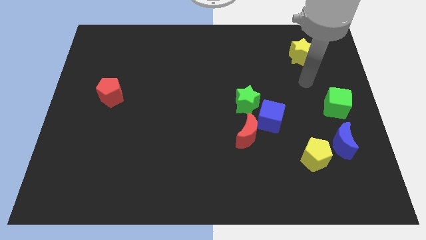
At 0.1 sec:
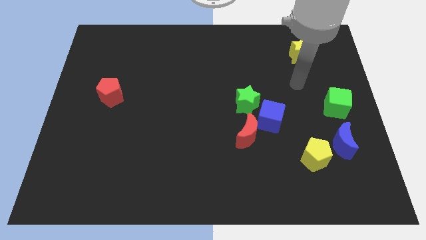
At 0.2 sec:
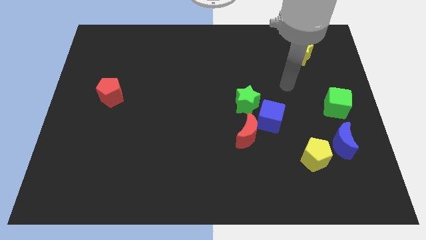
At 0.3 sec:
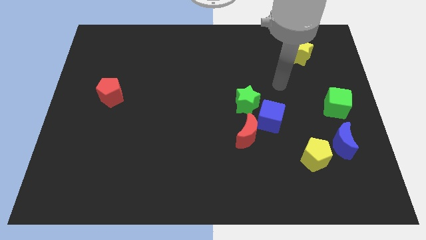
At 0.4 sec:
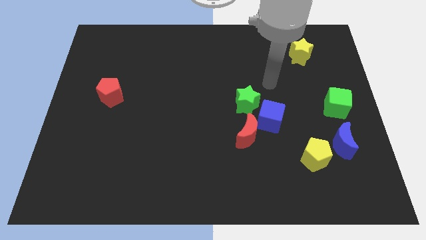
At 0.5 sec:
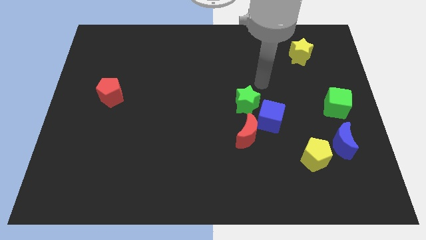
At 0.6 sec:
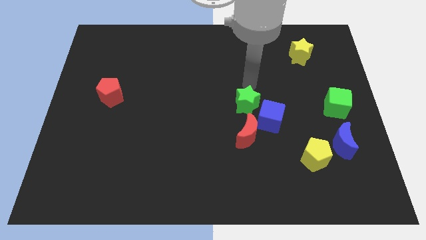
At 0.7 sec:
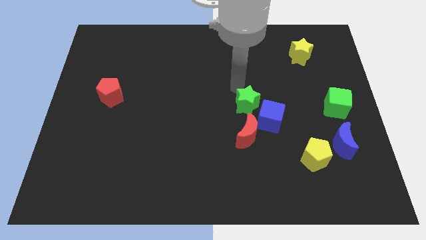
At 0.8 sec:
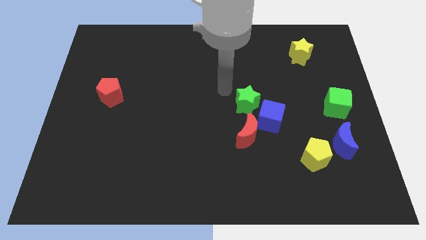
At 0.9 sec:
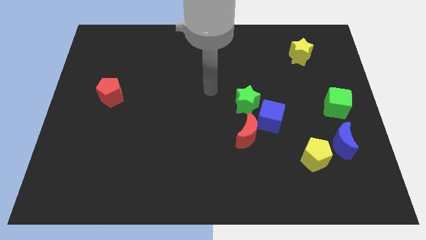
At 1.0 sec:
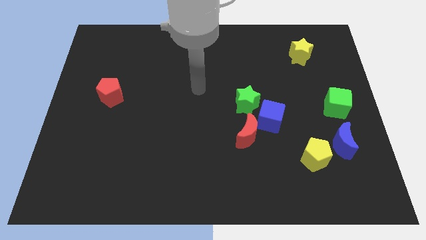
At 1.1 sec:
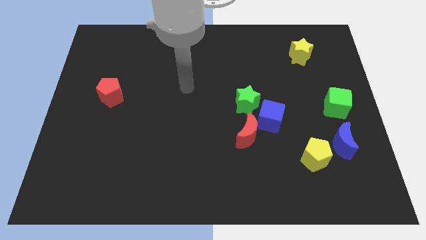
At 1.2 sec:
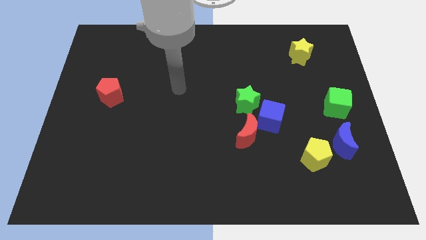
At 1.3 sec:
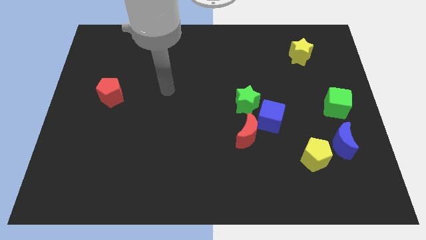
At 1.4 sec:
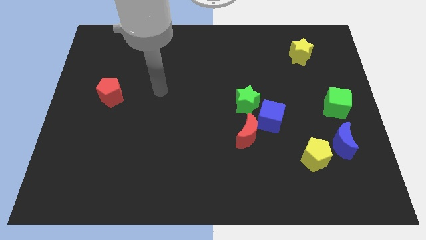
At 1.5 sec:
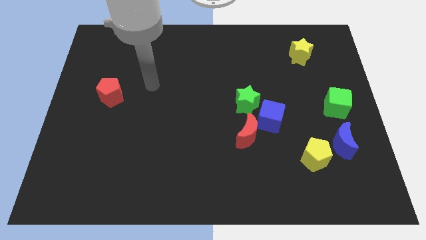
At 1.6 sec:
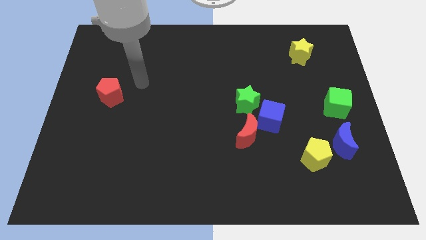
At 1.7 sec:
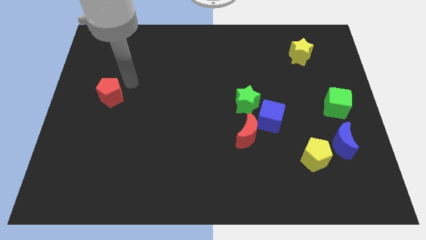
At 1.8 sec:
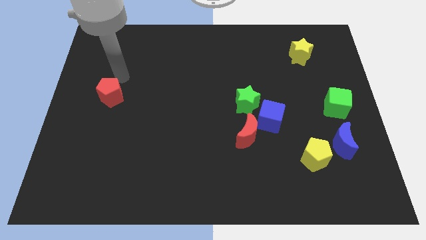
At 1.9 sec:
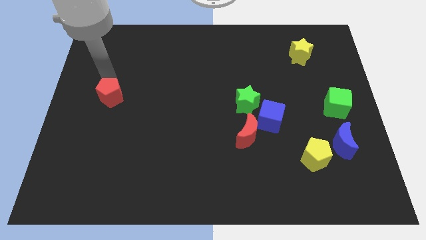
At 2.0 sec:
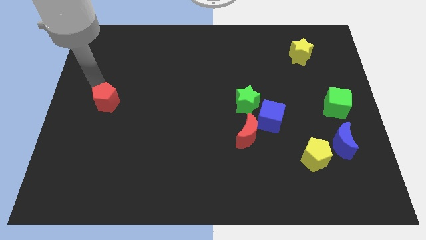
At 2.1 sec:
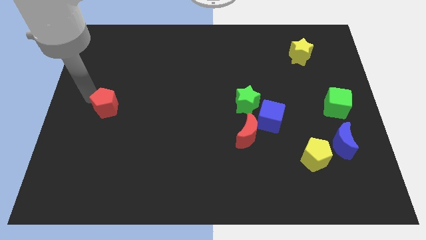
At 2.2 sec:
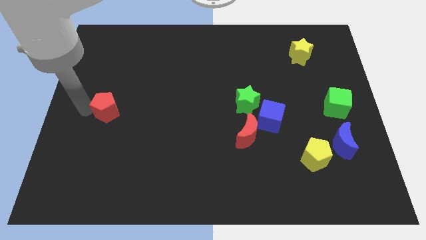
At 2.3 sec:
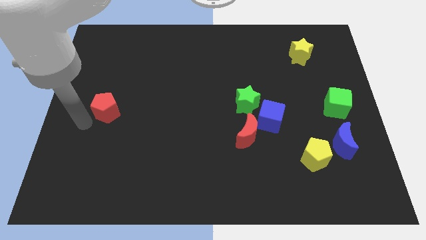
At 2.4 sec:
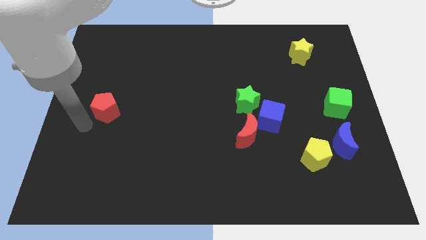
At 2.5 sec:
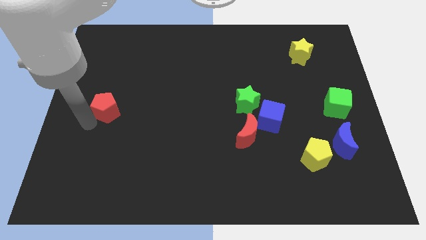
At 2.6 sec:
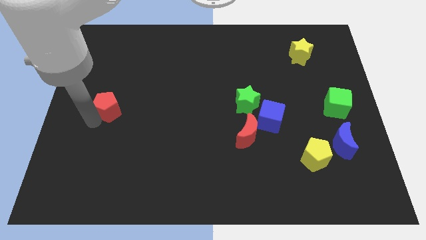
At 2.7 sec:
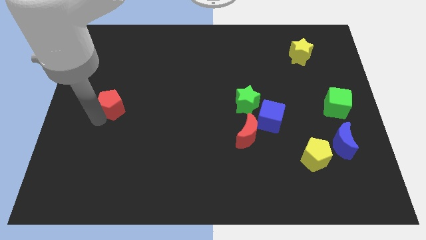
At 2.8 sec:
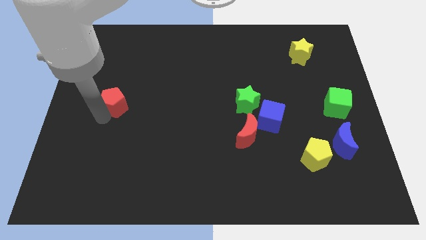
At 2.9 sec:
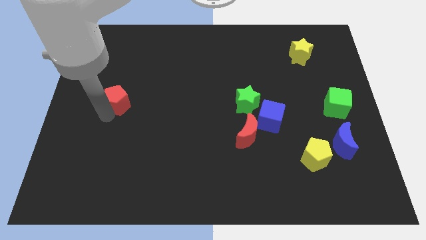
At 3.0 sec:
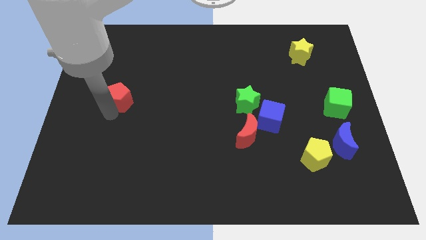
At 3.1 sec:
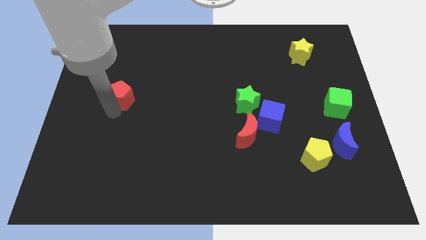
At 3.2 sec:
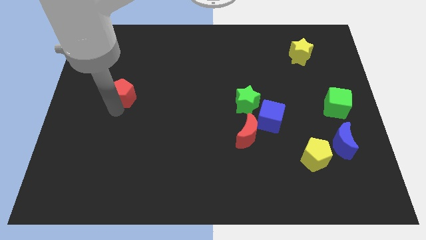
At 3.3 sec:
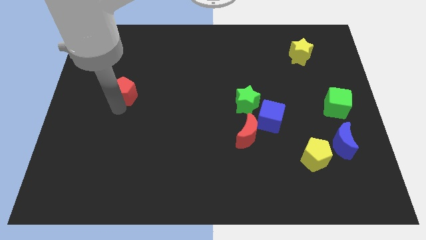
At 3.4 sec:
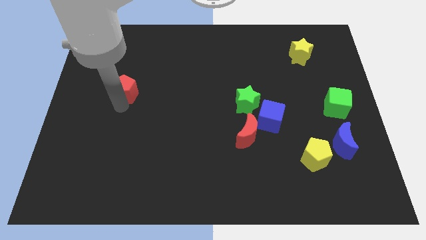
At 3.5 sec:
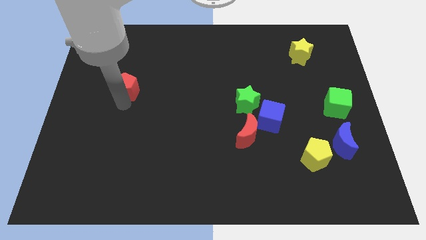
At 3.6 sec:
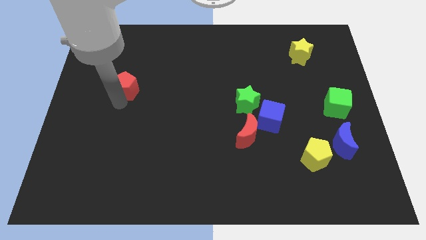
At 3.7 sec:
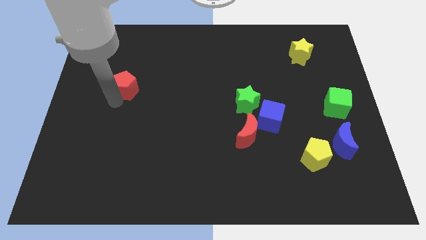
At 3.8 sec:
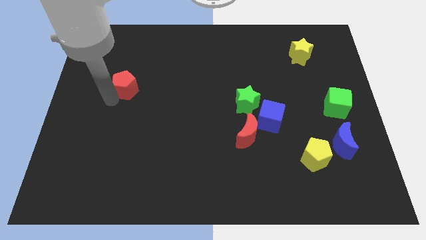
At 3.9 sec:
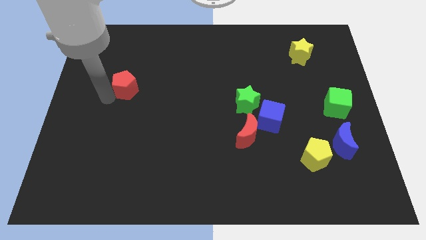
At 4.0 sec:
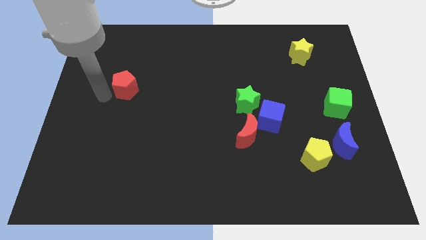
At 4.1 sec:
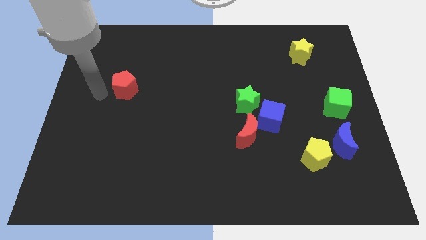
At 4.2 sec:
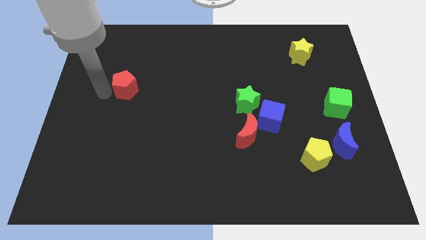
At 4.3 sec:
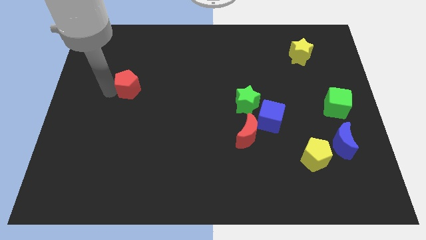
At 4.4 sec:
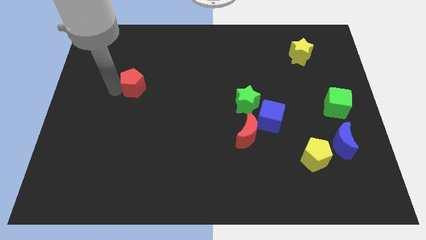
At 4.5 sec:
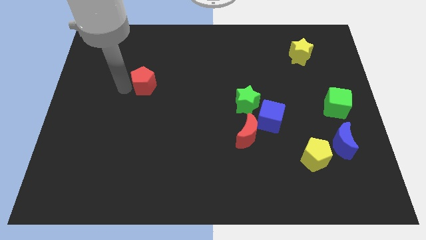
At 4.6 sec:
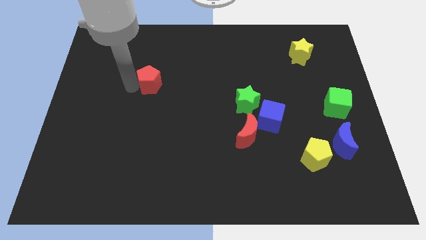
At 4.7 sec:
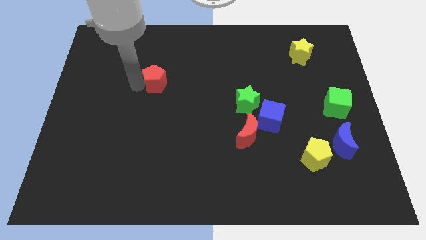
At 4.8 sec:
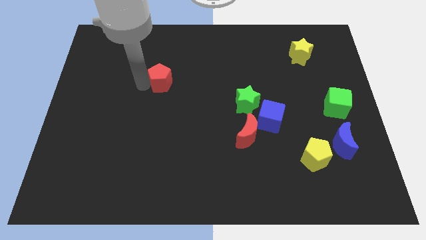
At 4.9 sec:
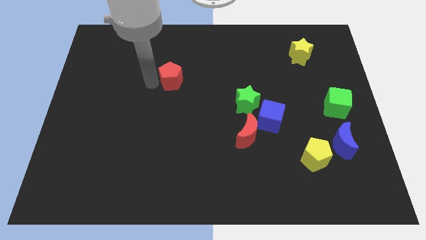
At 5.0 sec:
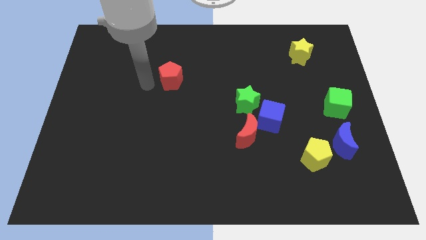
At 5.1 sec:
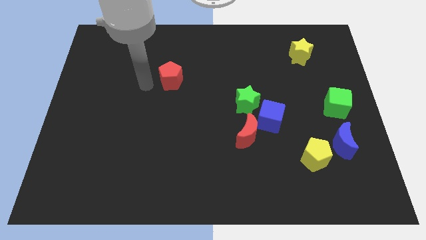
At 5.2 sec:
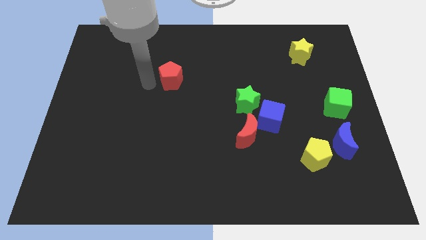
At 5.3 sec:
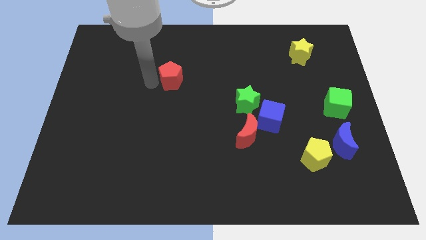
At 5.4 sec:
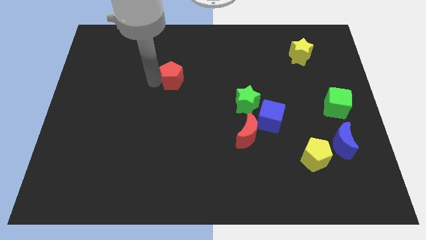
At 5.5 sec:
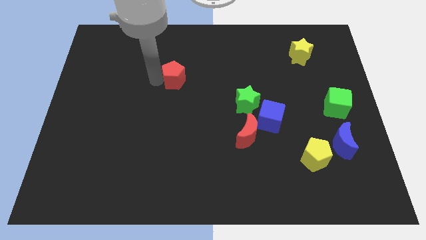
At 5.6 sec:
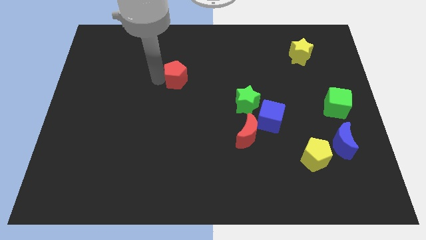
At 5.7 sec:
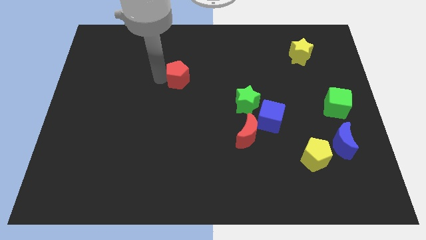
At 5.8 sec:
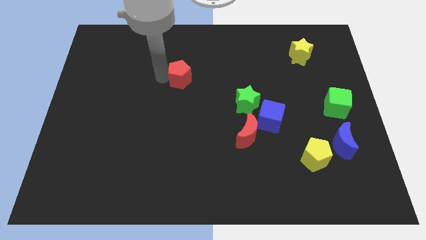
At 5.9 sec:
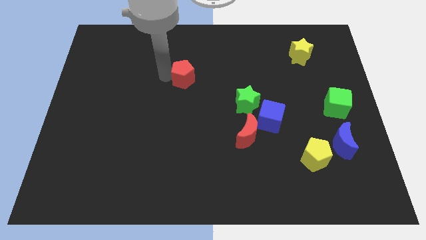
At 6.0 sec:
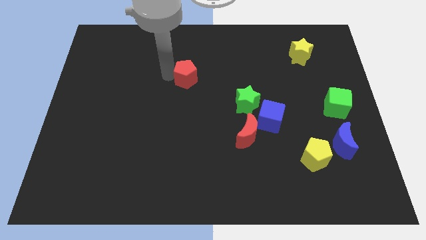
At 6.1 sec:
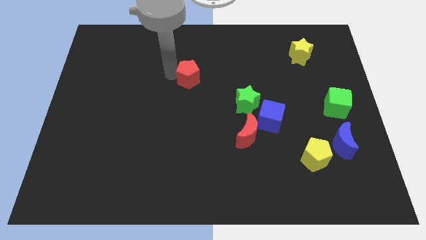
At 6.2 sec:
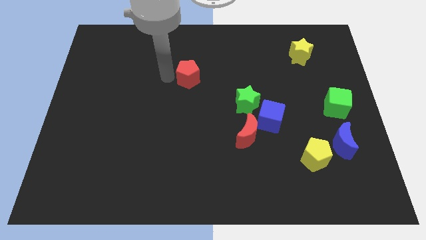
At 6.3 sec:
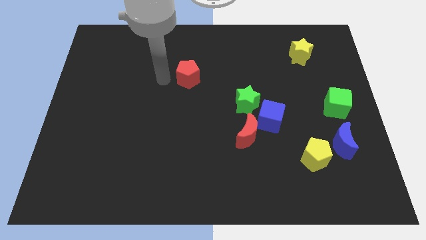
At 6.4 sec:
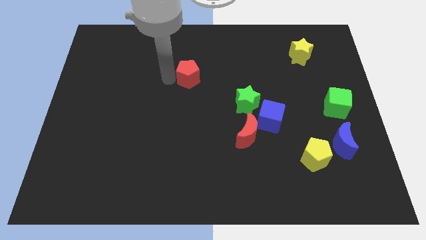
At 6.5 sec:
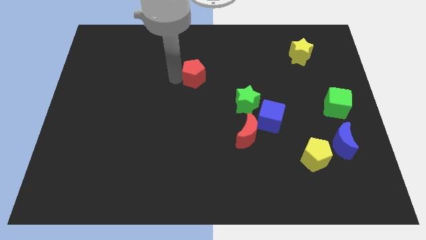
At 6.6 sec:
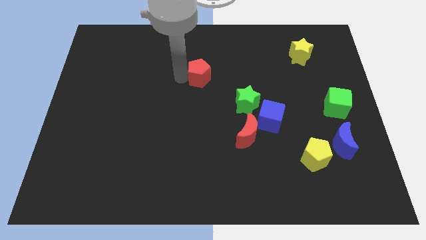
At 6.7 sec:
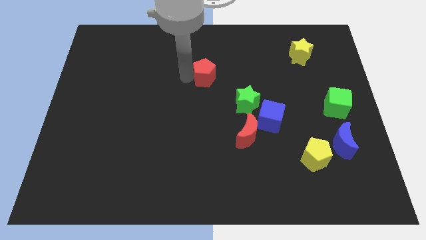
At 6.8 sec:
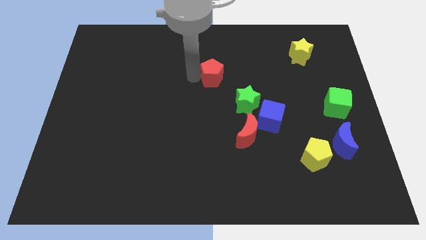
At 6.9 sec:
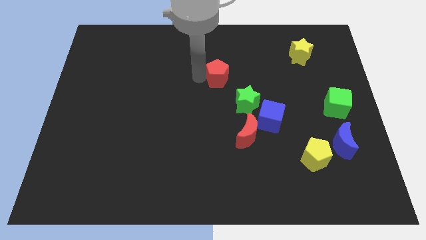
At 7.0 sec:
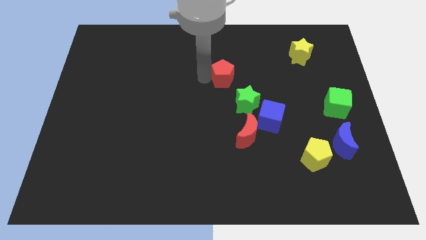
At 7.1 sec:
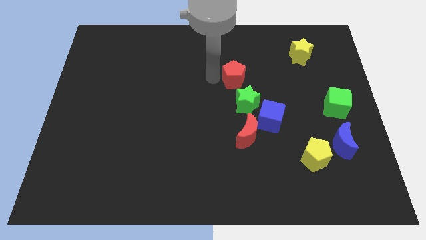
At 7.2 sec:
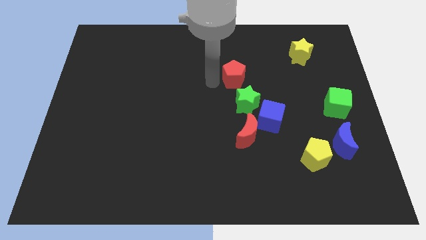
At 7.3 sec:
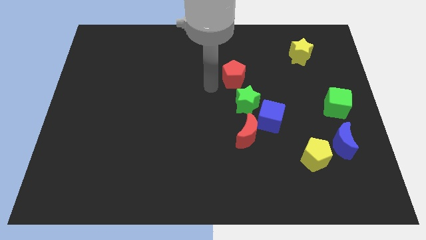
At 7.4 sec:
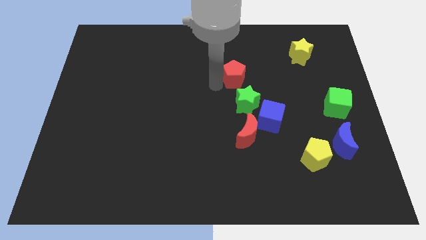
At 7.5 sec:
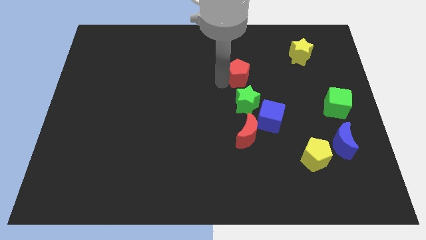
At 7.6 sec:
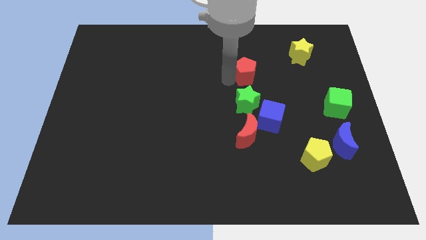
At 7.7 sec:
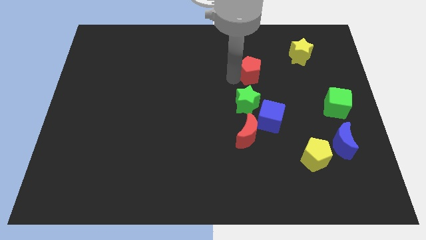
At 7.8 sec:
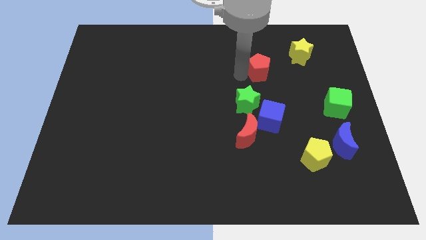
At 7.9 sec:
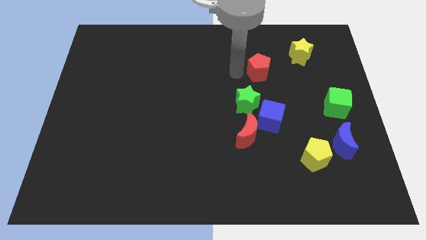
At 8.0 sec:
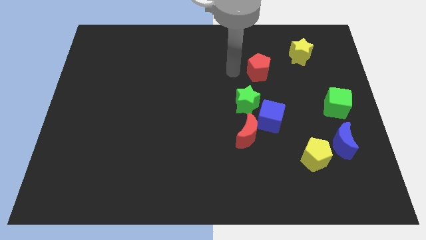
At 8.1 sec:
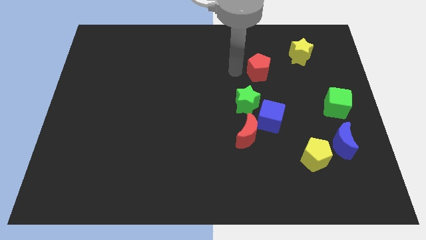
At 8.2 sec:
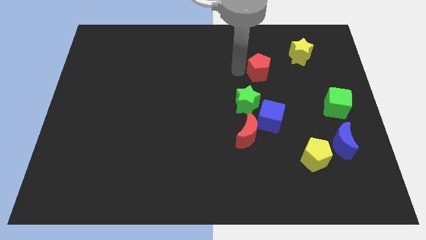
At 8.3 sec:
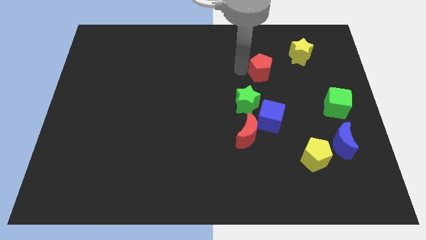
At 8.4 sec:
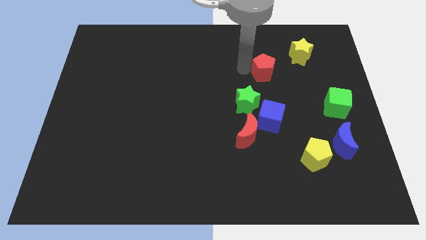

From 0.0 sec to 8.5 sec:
push the red pentagon to the bottom left side of the yellow star
